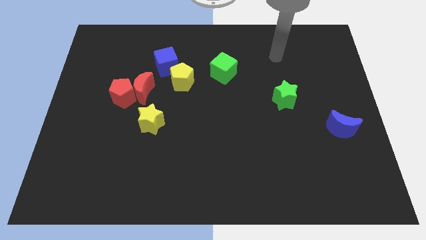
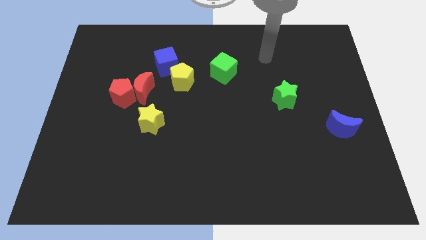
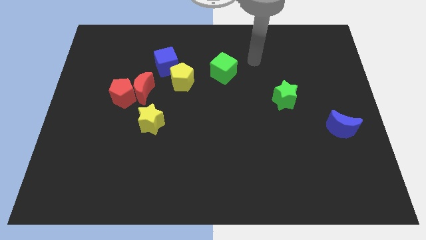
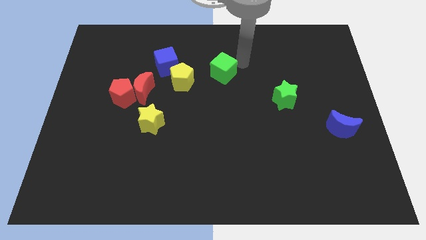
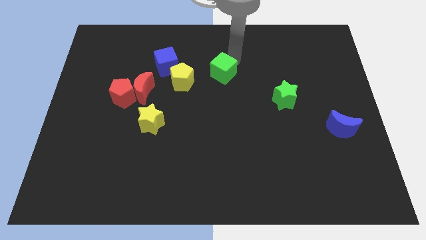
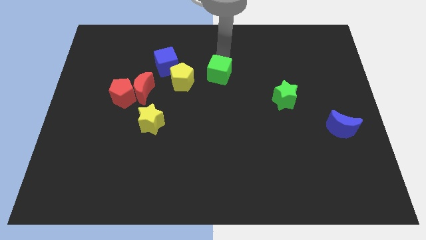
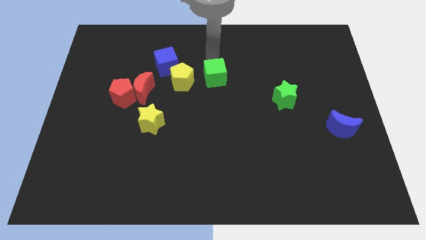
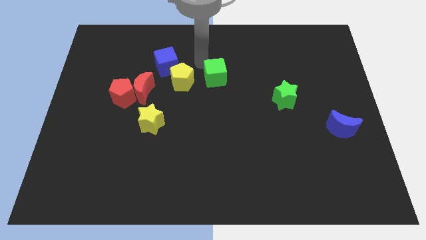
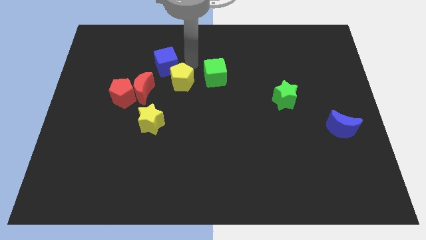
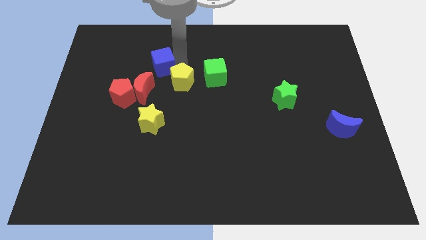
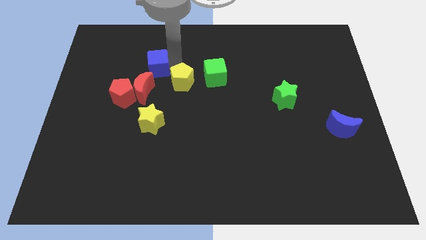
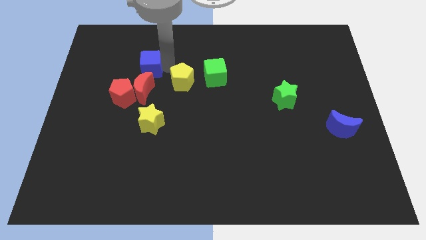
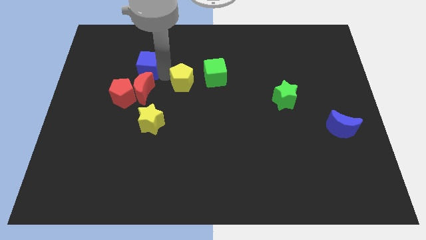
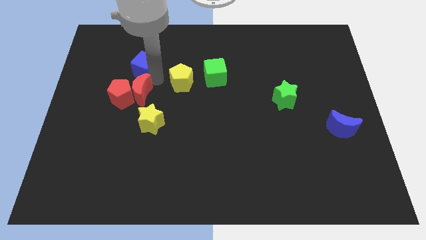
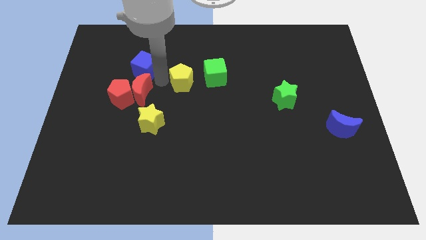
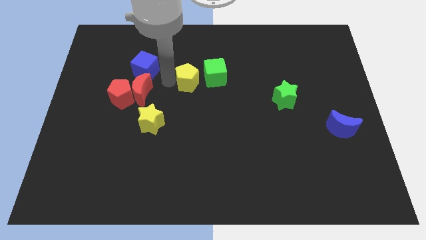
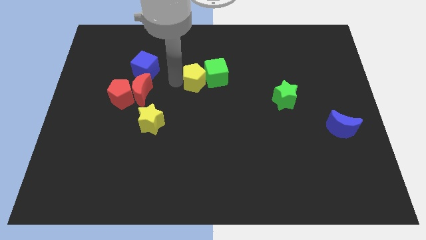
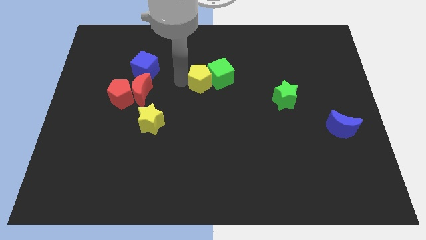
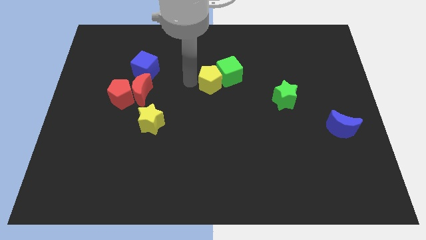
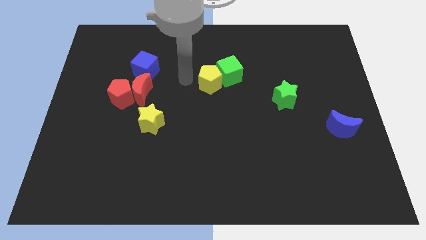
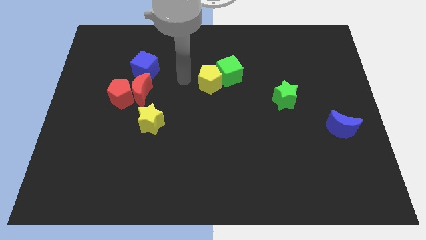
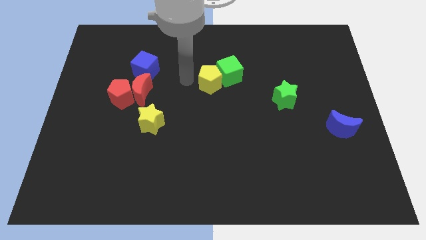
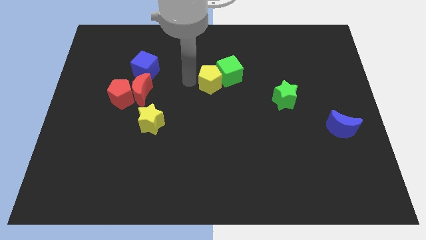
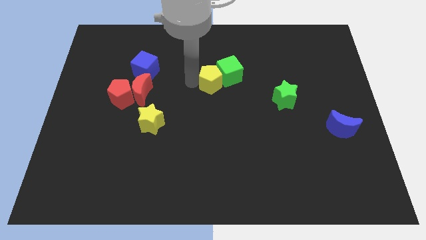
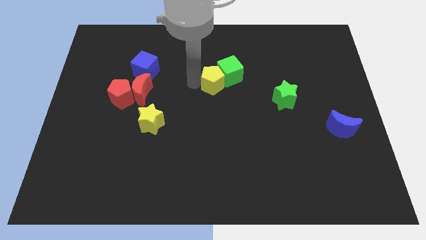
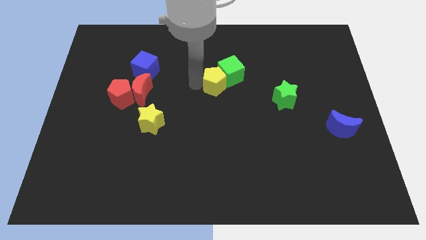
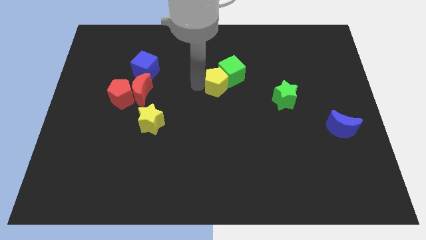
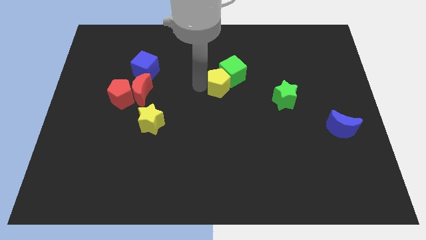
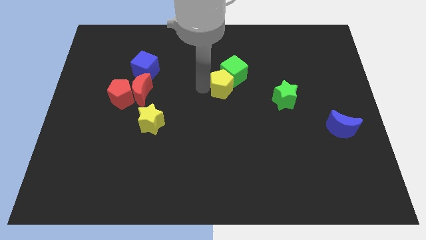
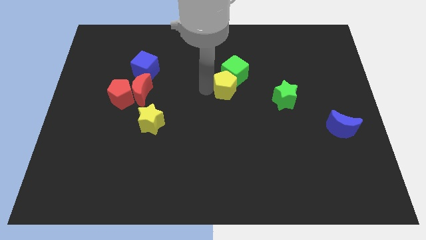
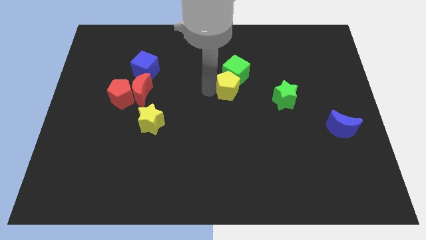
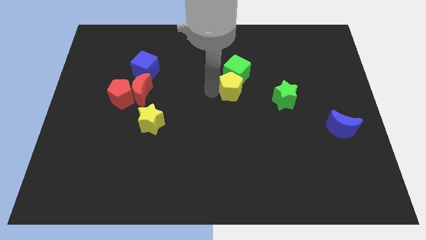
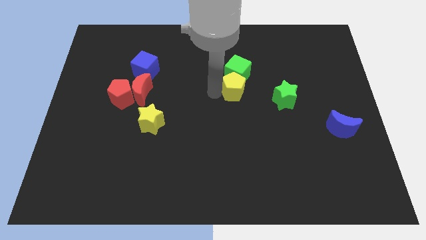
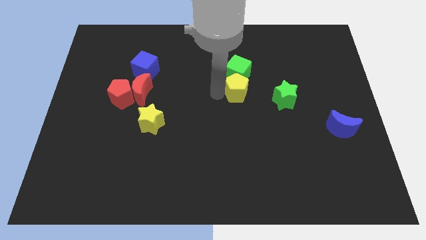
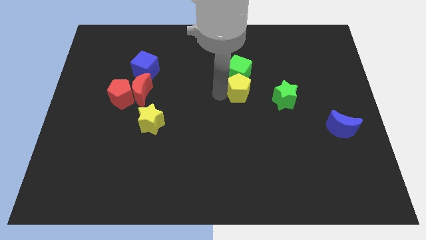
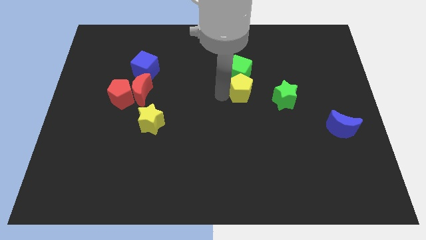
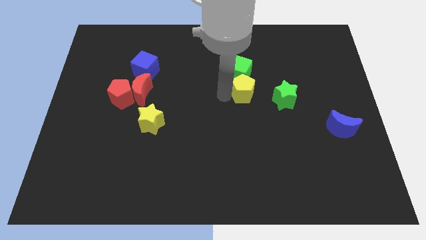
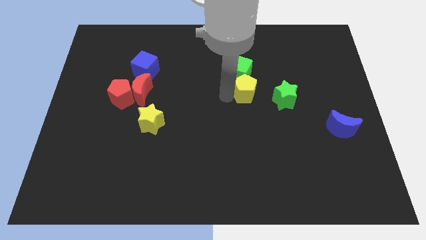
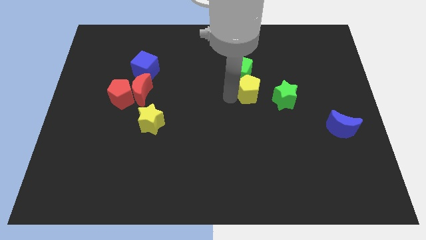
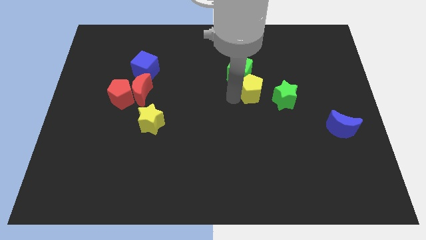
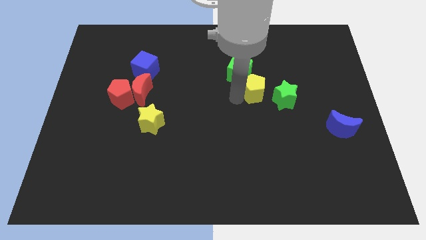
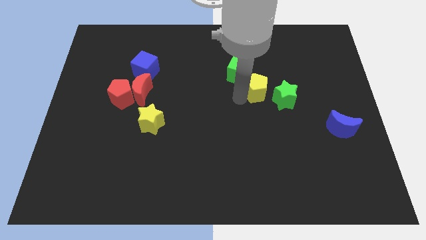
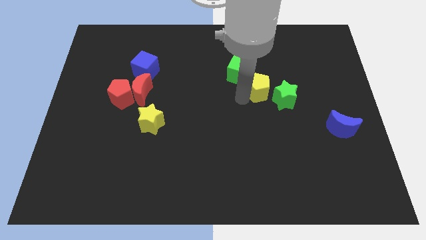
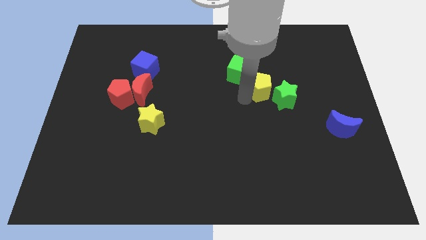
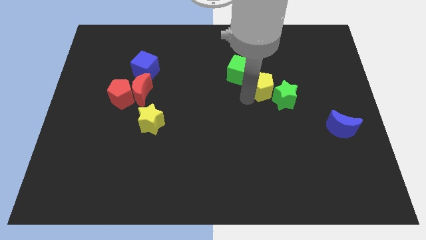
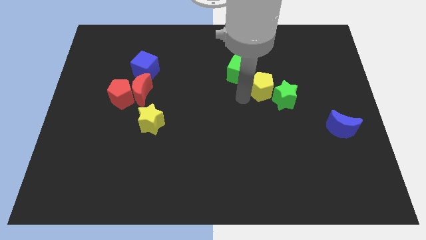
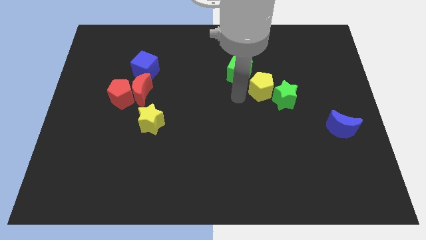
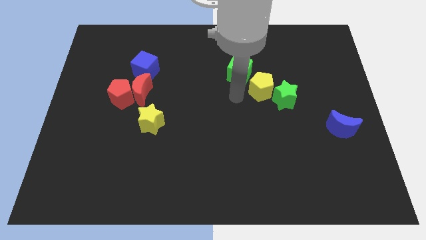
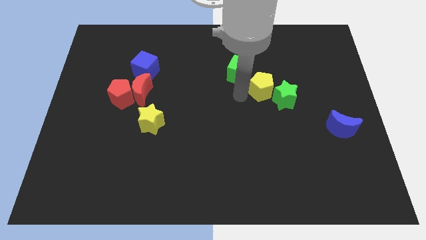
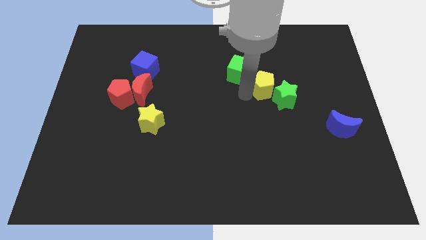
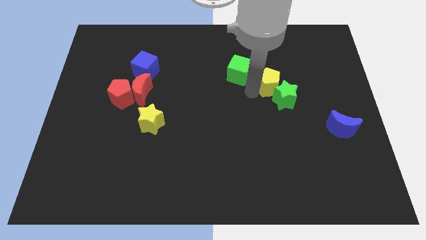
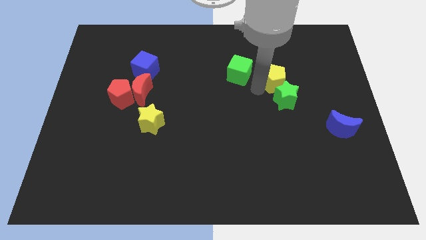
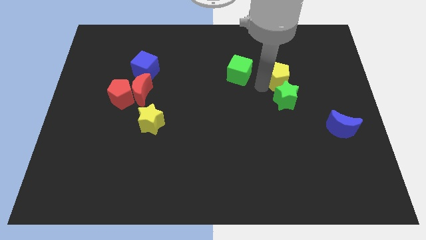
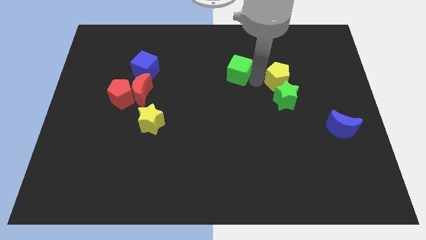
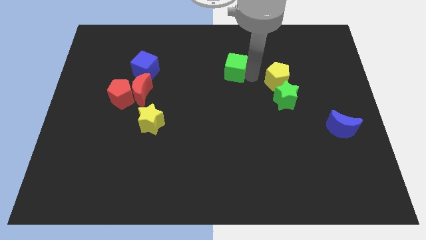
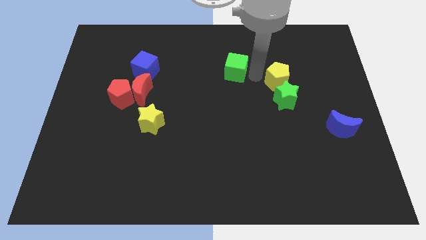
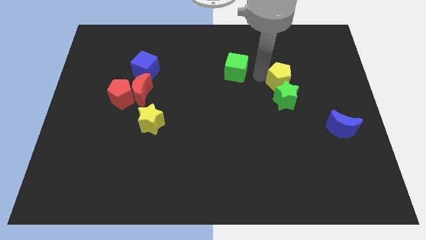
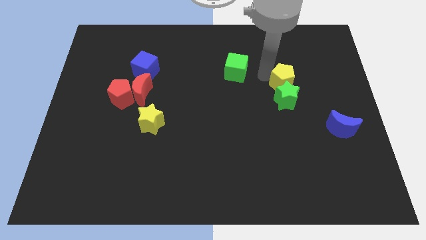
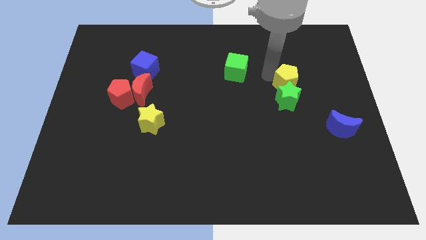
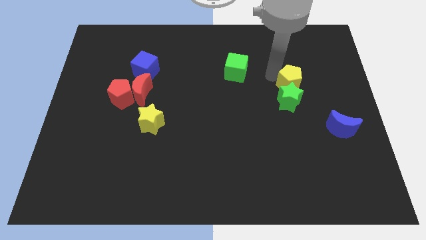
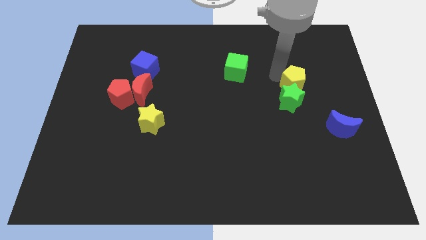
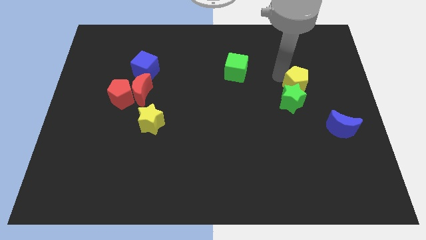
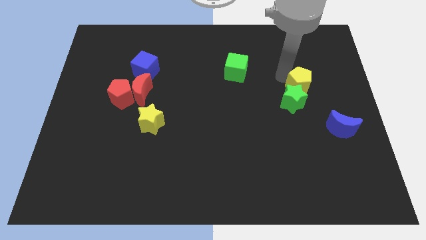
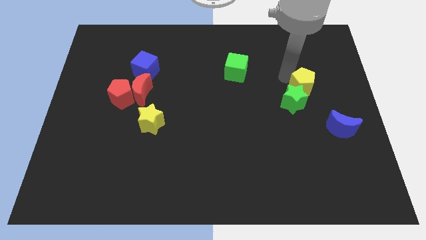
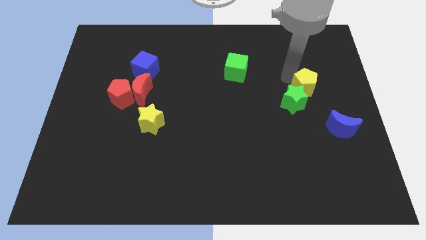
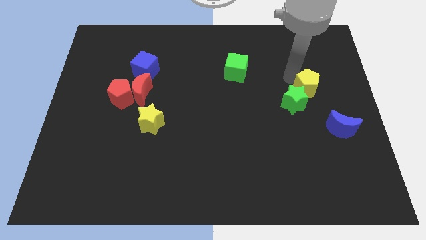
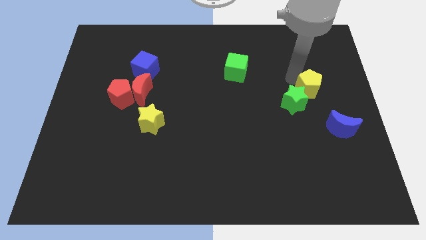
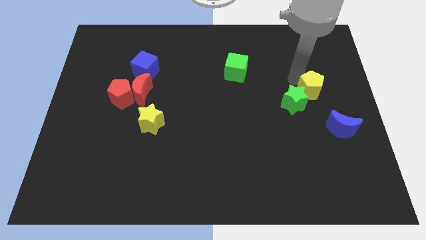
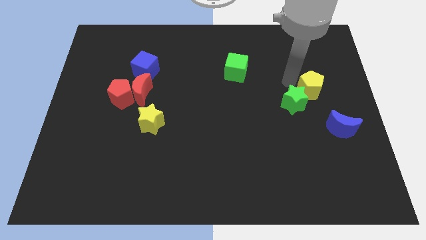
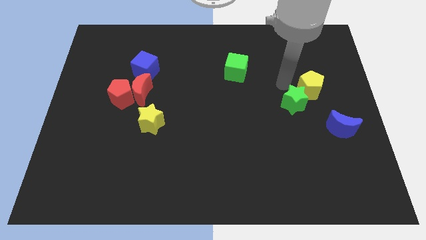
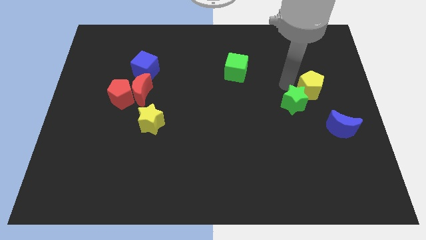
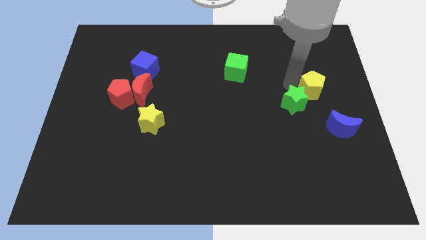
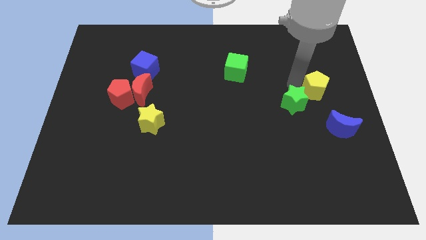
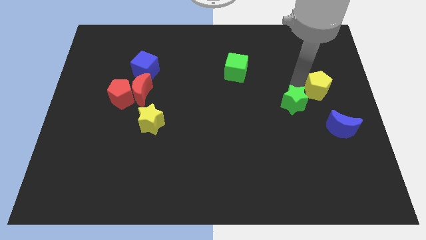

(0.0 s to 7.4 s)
push the yellow pentagon to the right side
